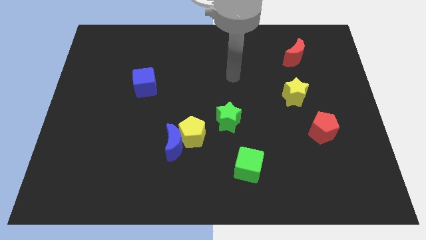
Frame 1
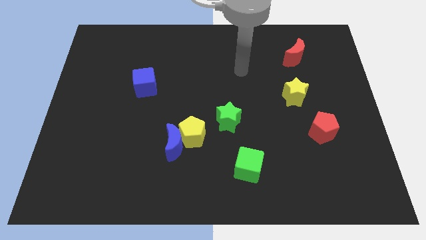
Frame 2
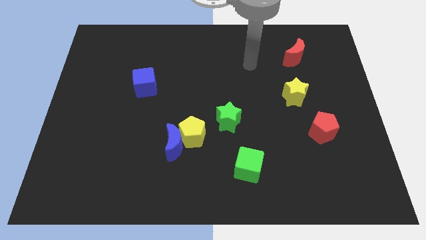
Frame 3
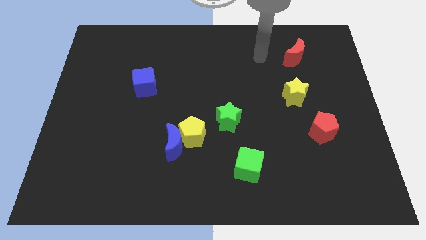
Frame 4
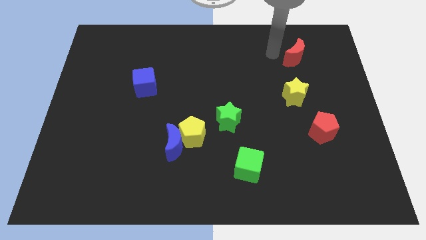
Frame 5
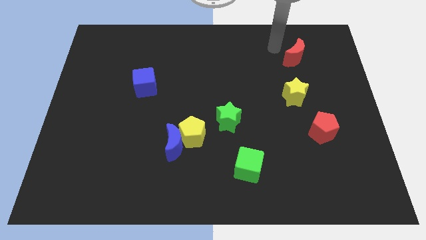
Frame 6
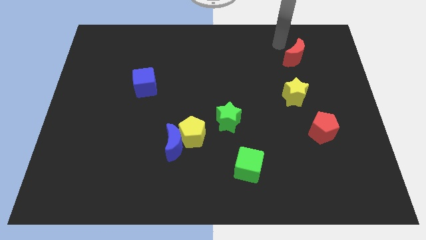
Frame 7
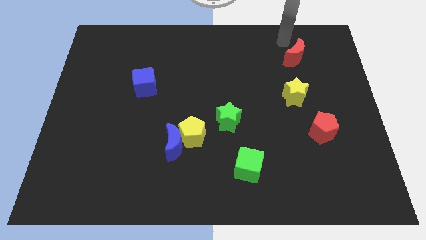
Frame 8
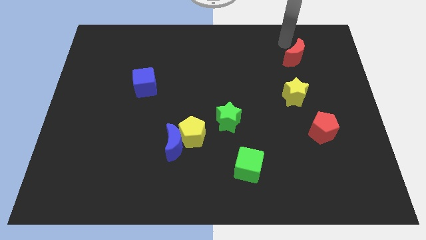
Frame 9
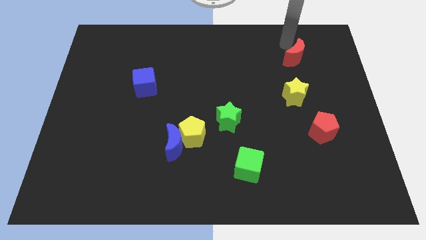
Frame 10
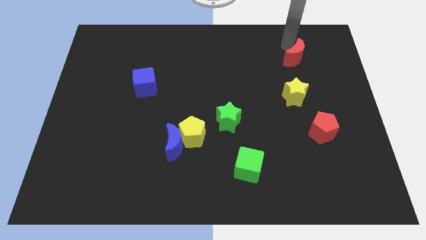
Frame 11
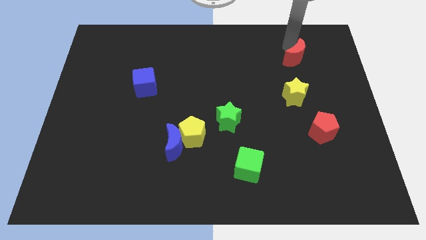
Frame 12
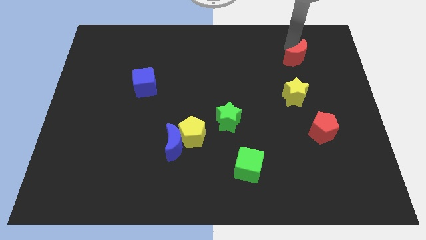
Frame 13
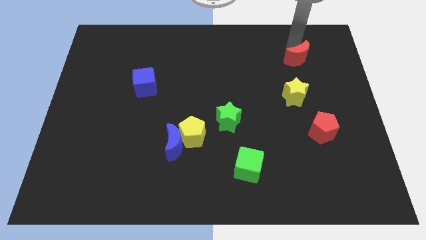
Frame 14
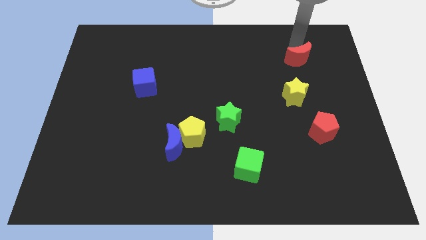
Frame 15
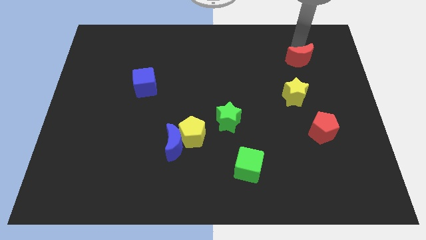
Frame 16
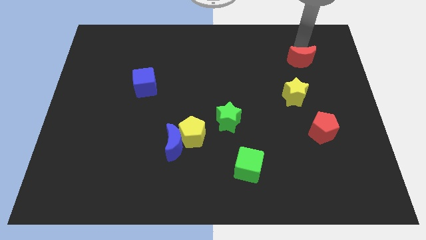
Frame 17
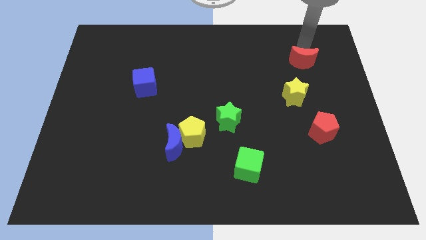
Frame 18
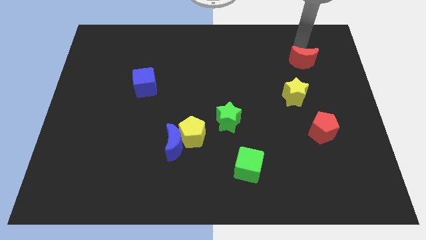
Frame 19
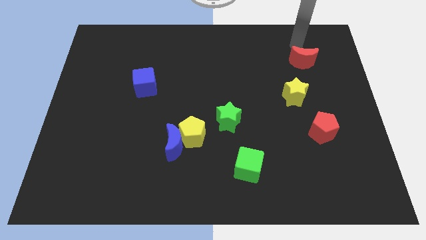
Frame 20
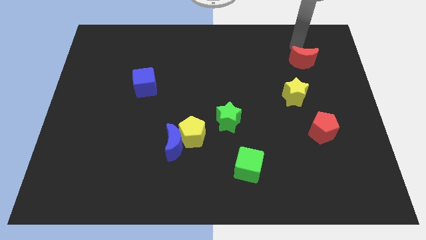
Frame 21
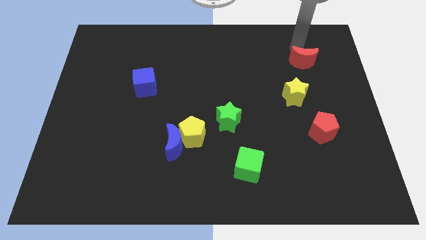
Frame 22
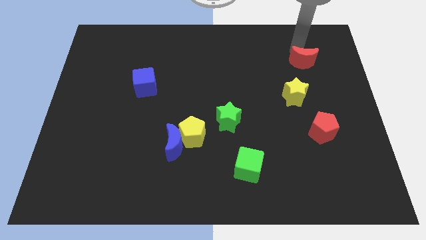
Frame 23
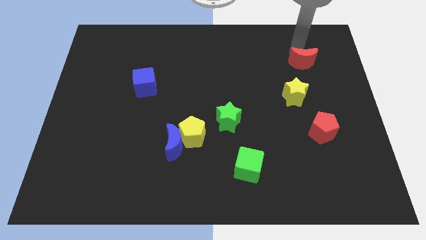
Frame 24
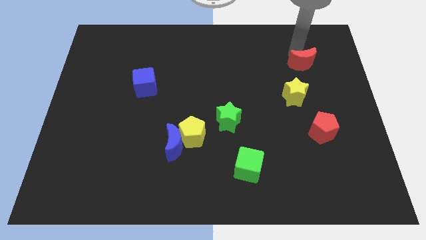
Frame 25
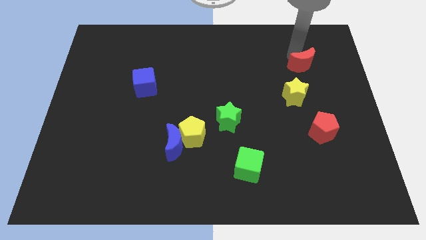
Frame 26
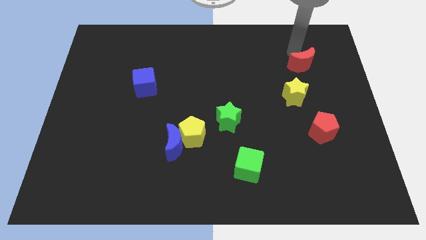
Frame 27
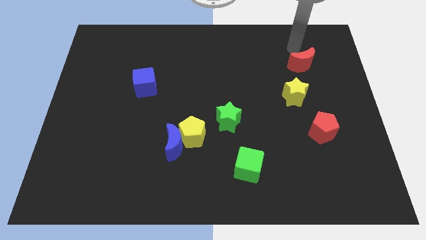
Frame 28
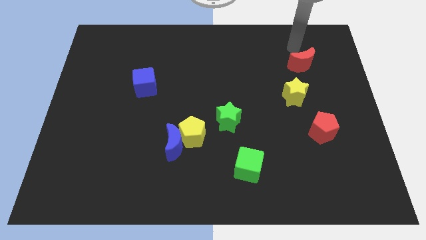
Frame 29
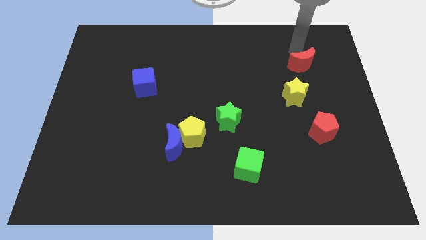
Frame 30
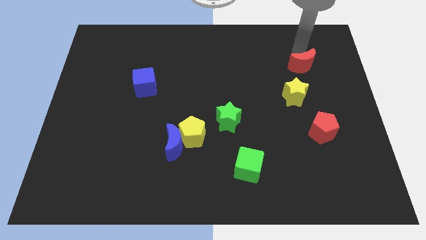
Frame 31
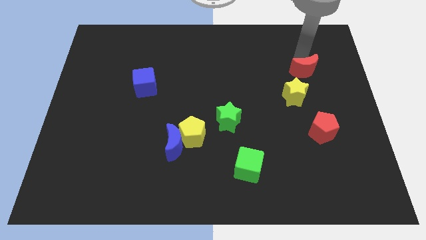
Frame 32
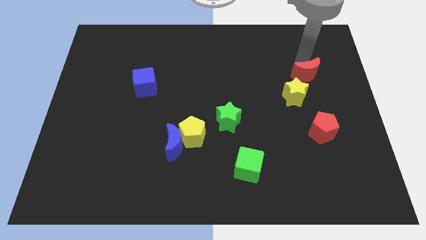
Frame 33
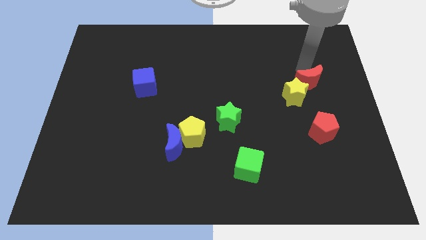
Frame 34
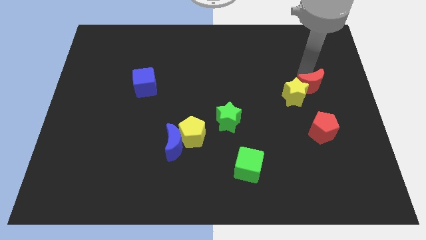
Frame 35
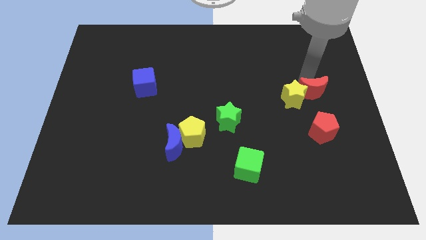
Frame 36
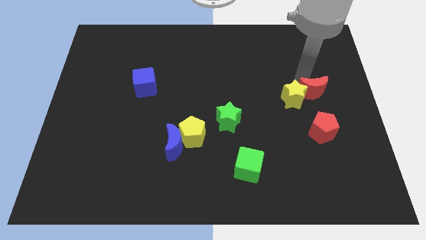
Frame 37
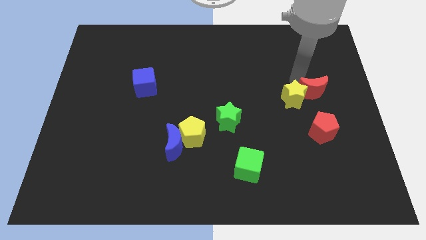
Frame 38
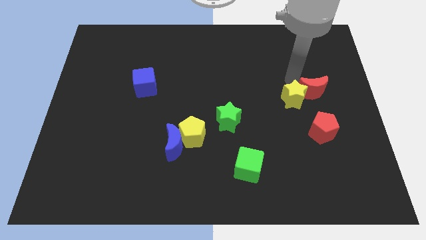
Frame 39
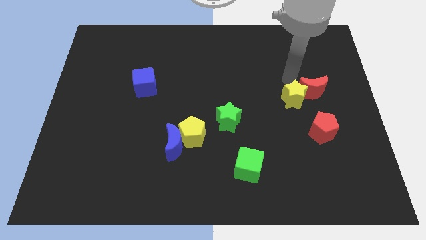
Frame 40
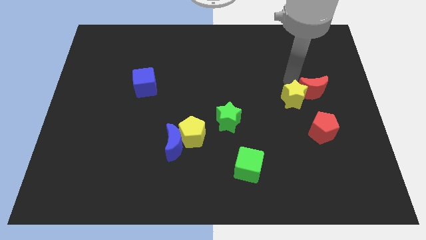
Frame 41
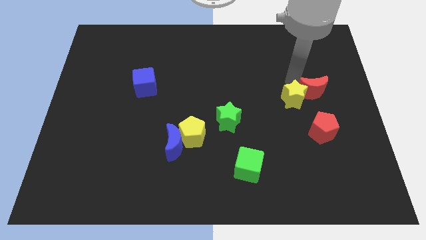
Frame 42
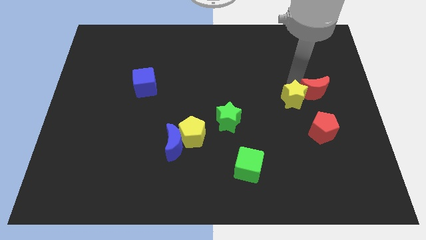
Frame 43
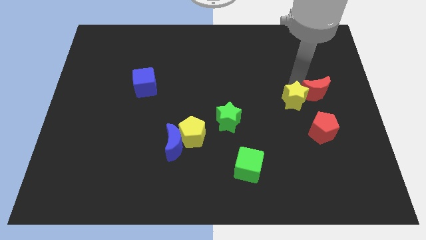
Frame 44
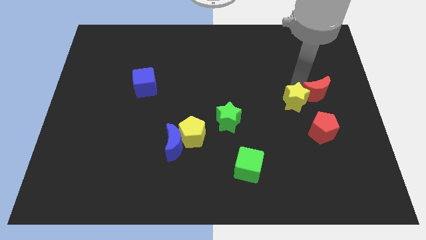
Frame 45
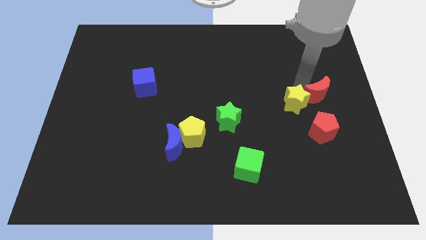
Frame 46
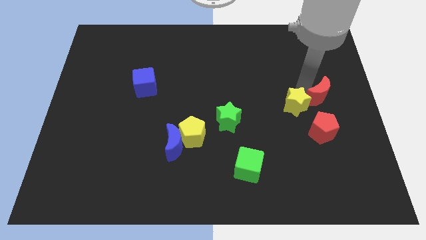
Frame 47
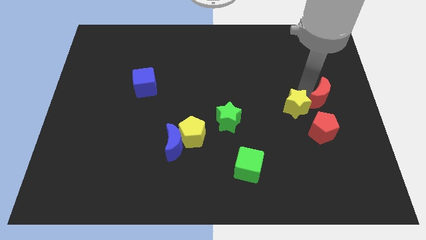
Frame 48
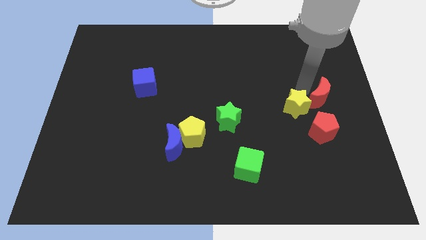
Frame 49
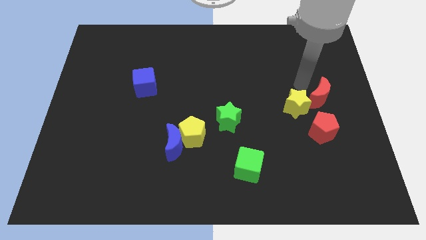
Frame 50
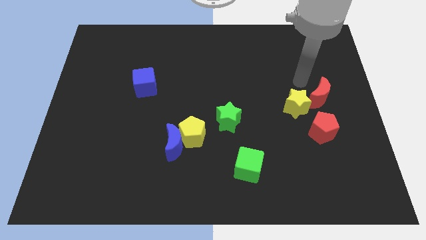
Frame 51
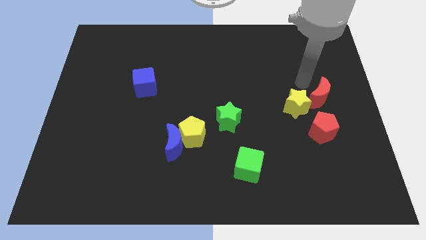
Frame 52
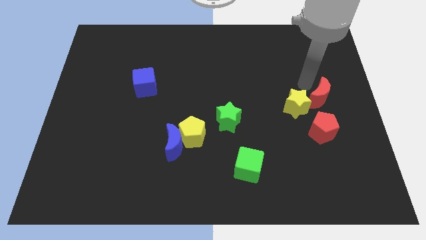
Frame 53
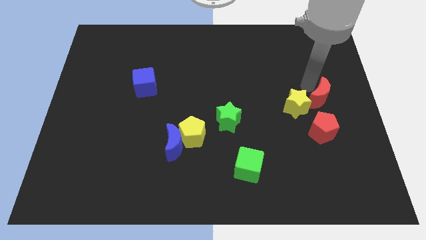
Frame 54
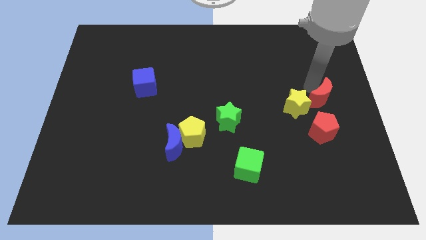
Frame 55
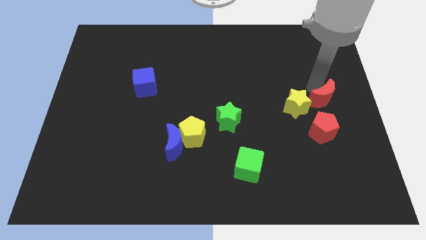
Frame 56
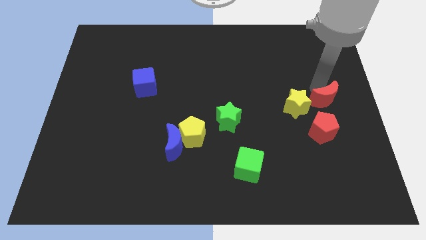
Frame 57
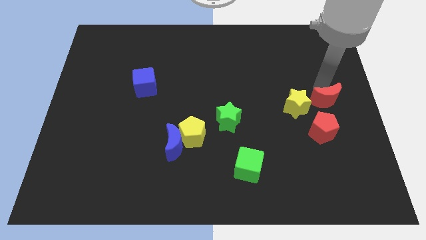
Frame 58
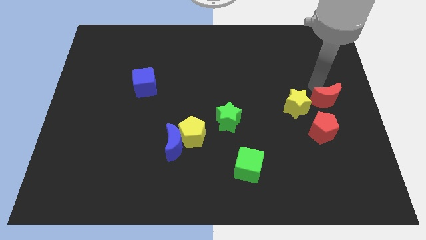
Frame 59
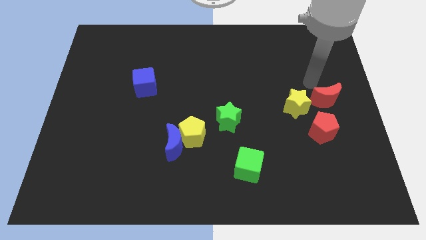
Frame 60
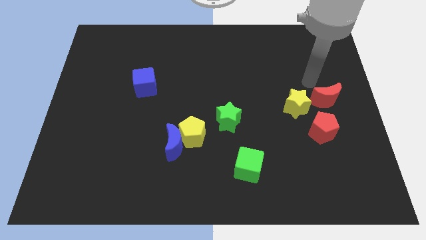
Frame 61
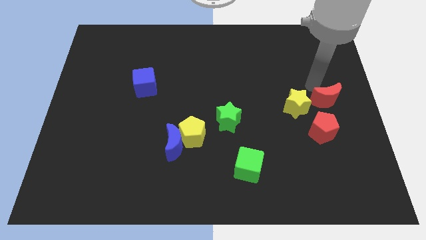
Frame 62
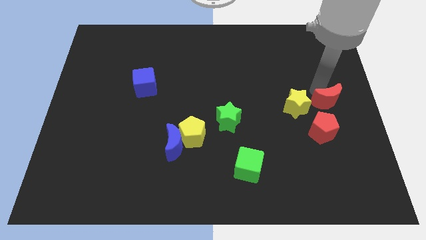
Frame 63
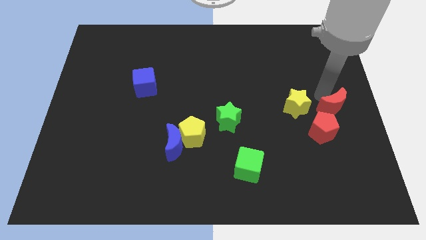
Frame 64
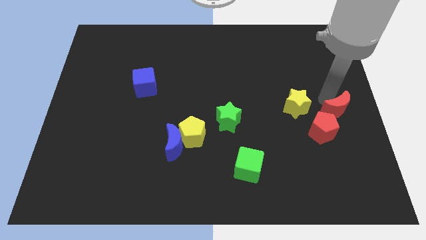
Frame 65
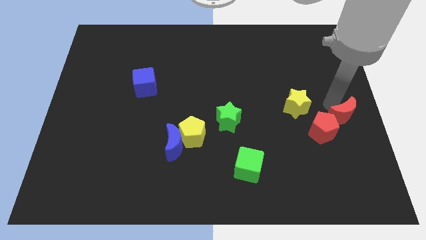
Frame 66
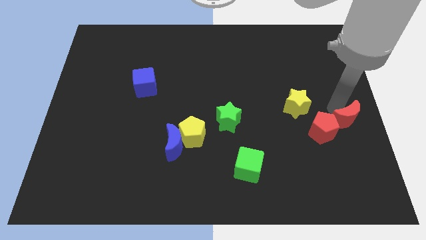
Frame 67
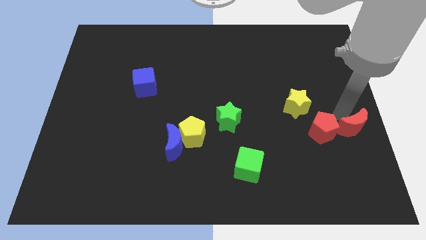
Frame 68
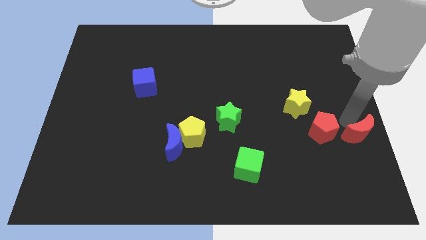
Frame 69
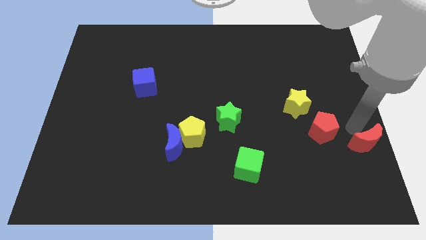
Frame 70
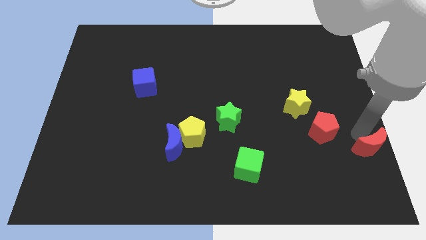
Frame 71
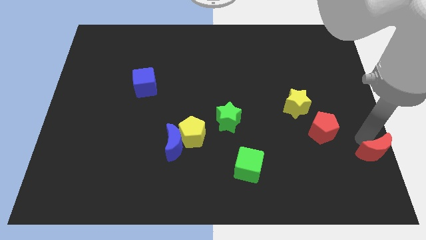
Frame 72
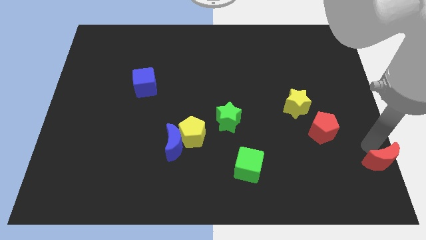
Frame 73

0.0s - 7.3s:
move the red moon to the bottom right of the board
